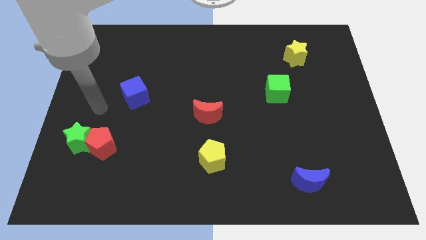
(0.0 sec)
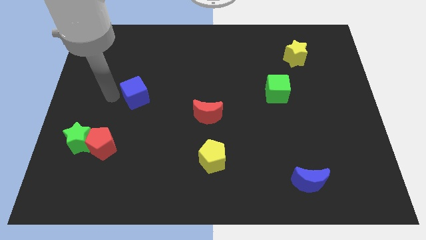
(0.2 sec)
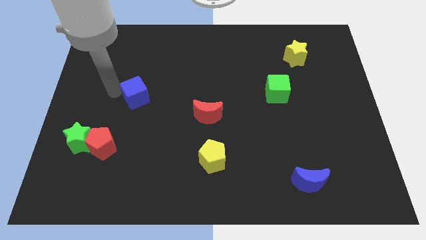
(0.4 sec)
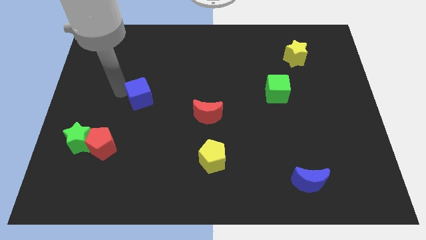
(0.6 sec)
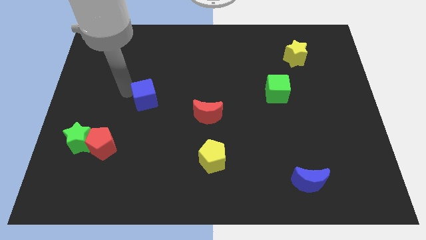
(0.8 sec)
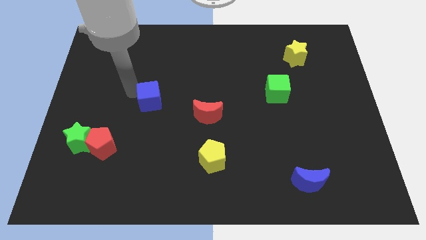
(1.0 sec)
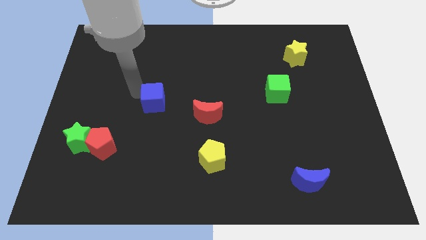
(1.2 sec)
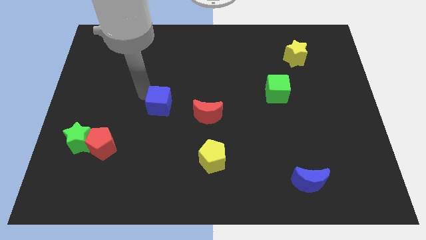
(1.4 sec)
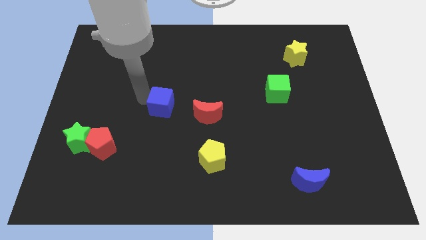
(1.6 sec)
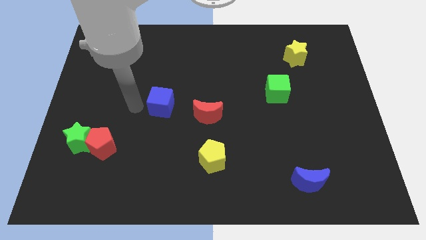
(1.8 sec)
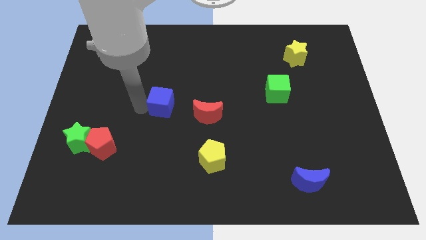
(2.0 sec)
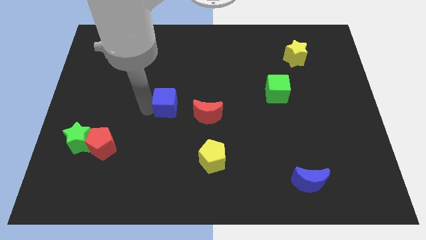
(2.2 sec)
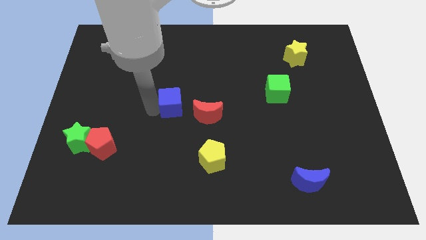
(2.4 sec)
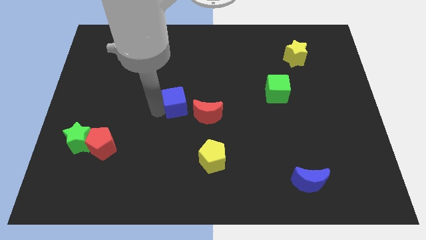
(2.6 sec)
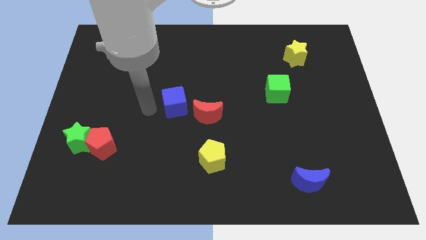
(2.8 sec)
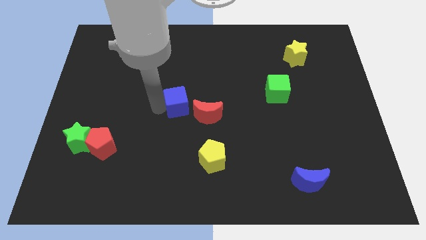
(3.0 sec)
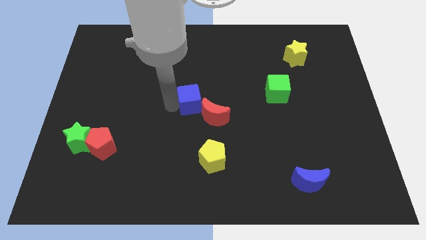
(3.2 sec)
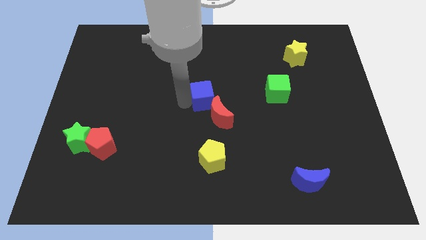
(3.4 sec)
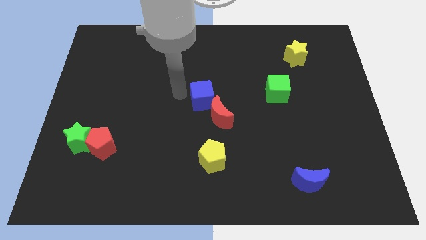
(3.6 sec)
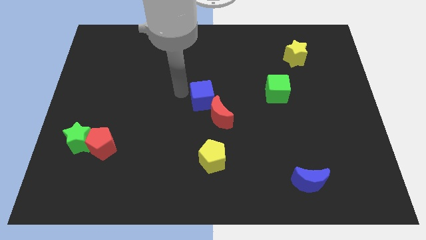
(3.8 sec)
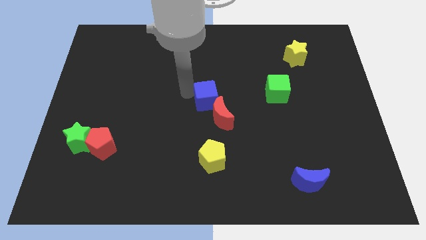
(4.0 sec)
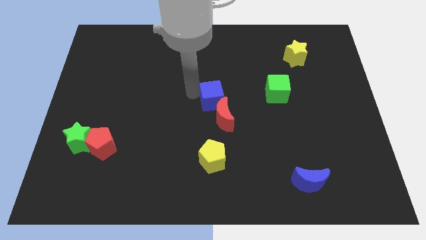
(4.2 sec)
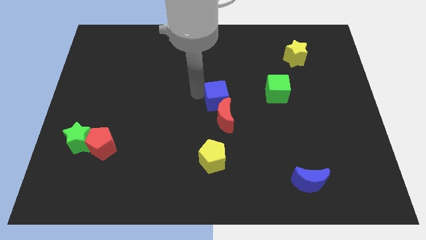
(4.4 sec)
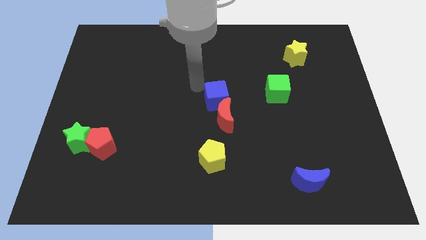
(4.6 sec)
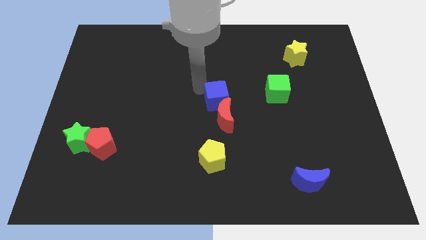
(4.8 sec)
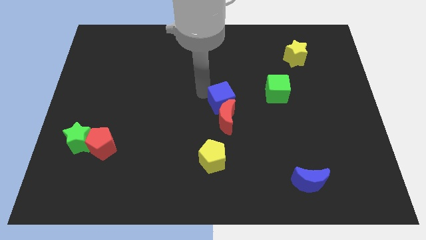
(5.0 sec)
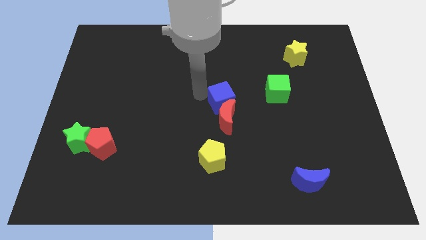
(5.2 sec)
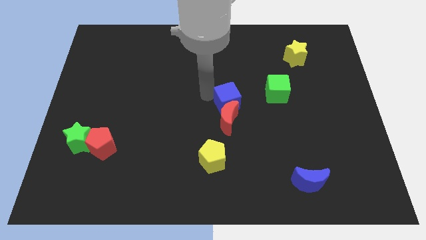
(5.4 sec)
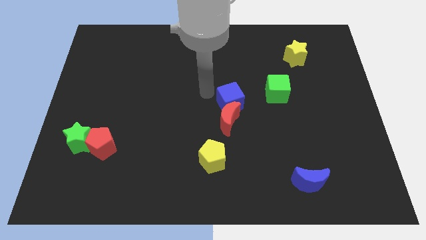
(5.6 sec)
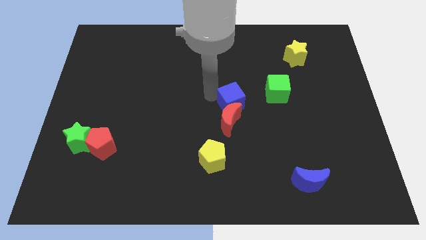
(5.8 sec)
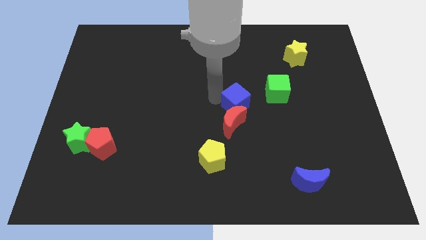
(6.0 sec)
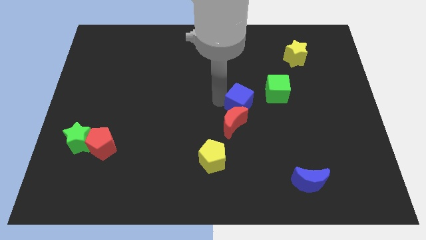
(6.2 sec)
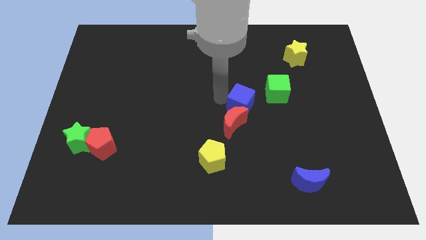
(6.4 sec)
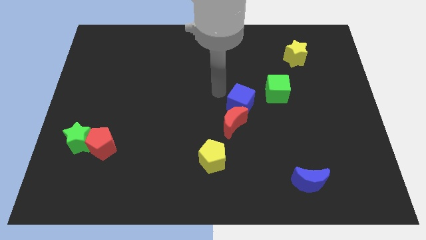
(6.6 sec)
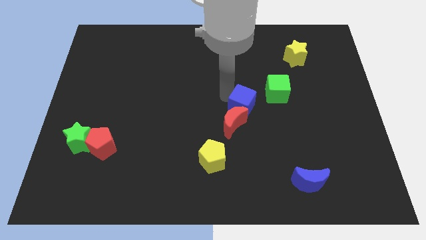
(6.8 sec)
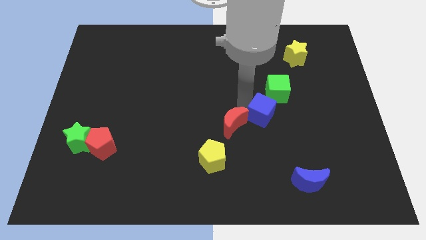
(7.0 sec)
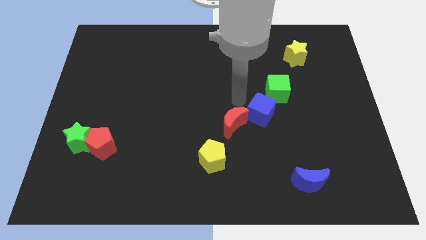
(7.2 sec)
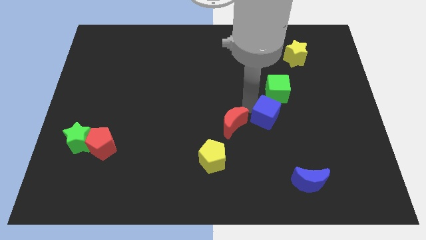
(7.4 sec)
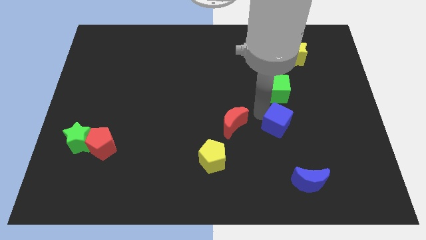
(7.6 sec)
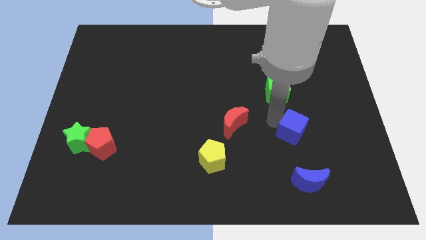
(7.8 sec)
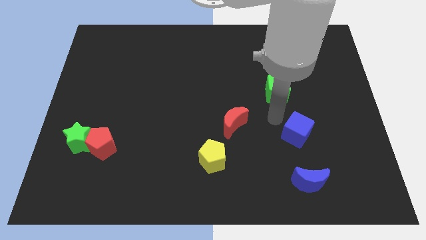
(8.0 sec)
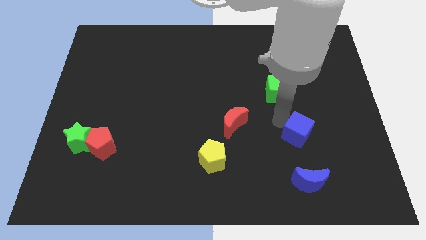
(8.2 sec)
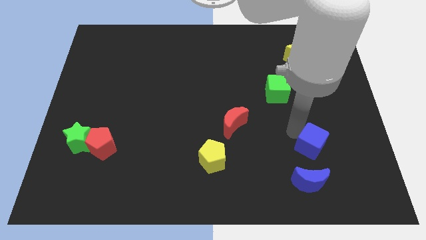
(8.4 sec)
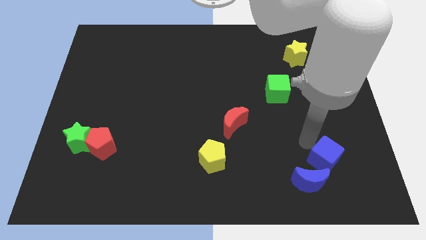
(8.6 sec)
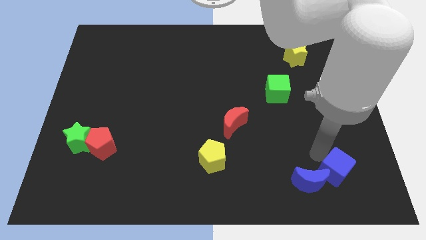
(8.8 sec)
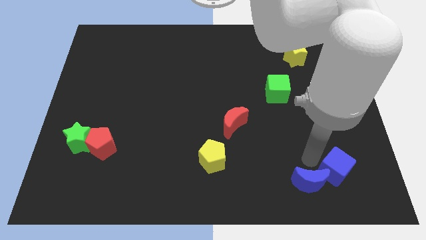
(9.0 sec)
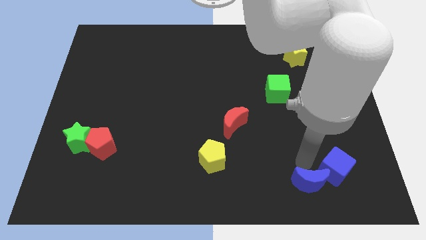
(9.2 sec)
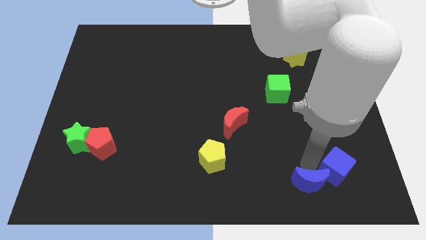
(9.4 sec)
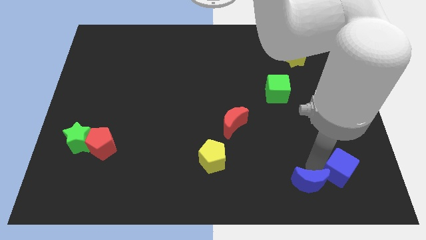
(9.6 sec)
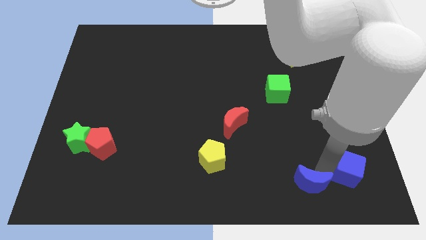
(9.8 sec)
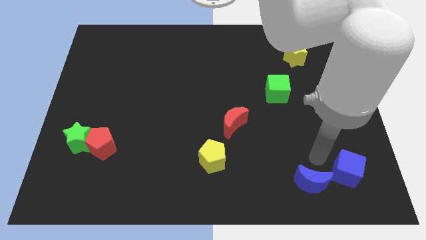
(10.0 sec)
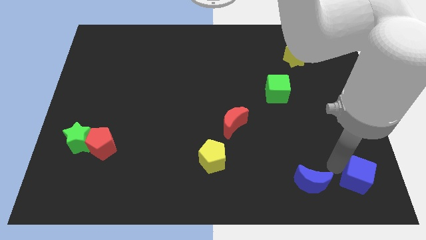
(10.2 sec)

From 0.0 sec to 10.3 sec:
slide the blue cube to the lower right corner
